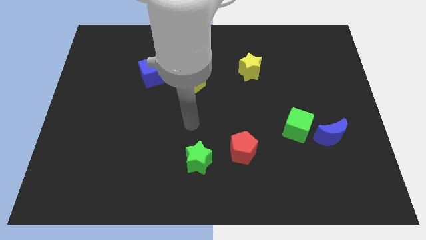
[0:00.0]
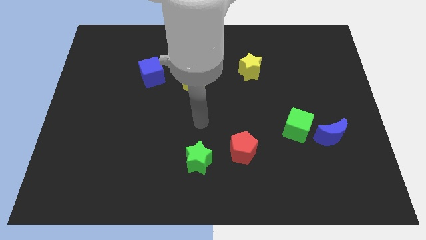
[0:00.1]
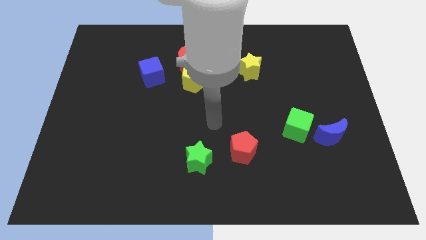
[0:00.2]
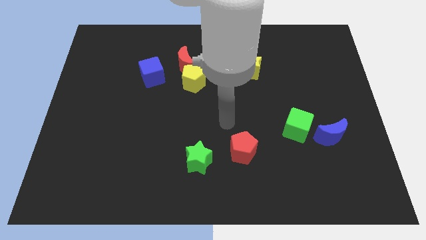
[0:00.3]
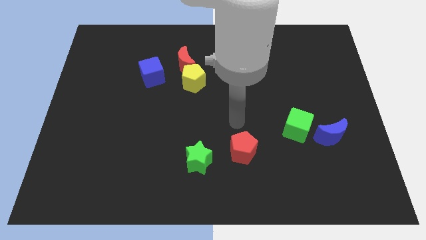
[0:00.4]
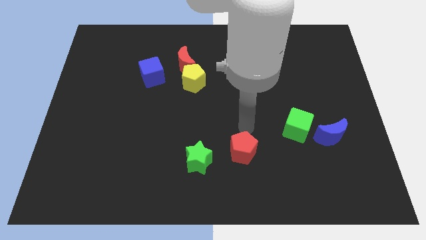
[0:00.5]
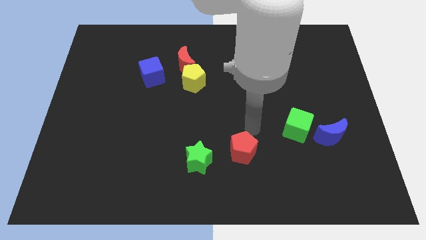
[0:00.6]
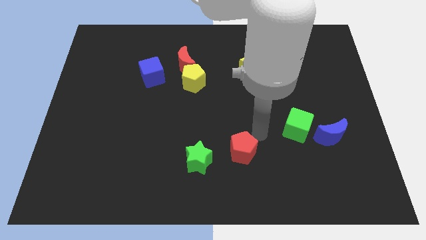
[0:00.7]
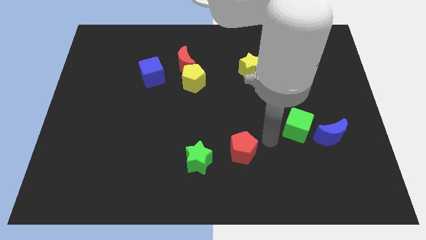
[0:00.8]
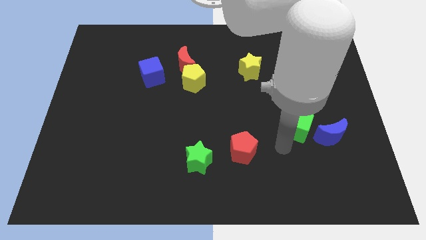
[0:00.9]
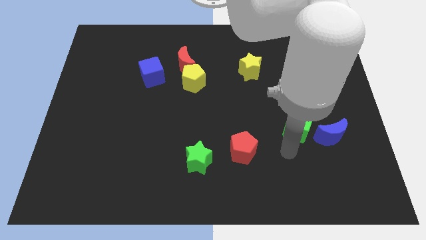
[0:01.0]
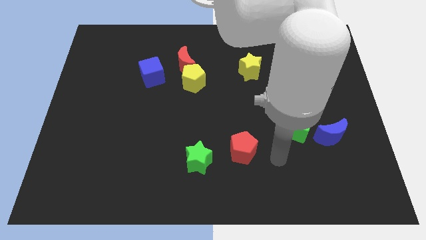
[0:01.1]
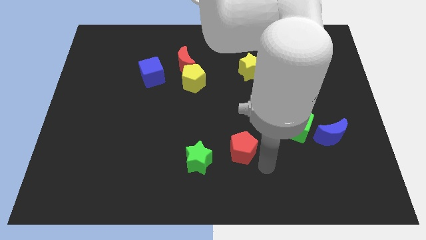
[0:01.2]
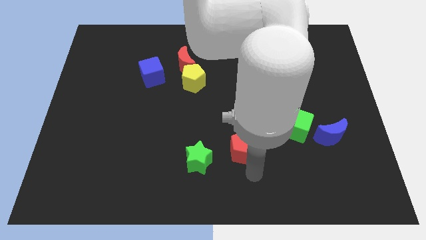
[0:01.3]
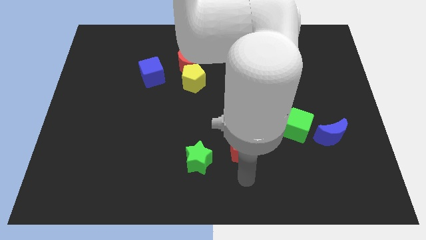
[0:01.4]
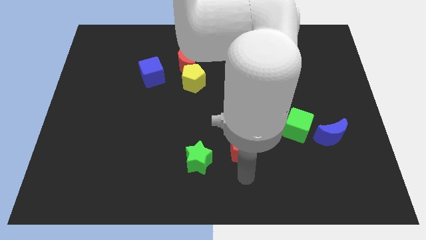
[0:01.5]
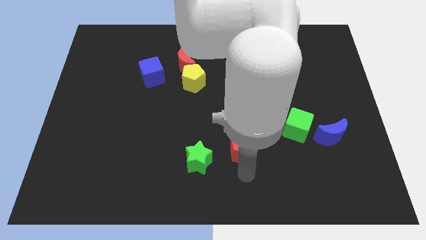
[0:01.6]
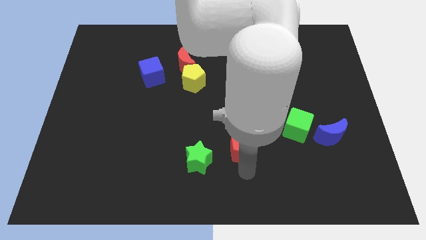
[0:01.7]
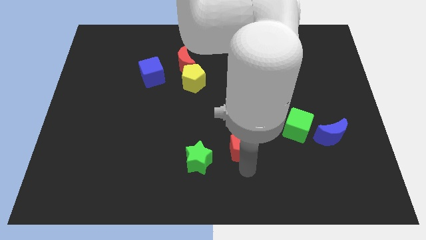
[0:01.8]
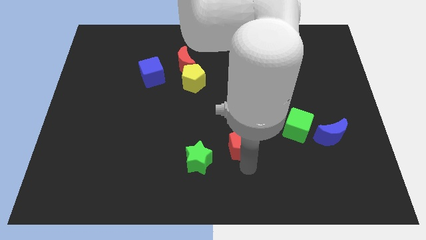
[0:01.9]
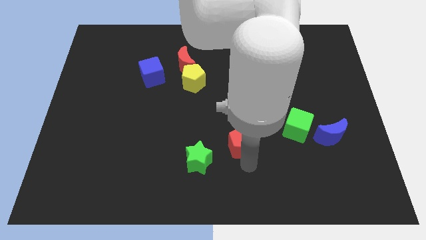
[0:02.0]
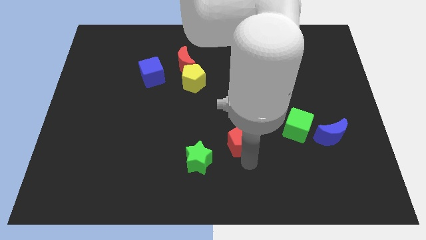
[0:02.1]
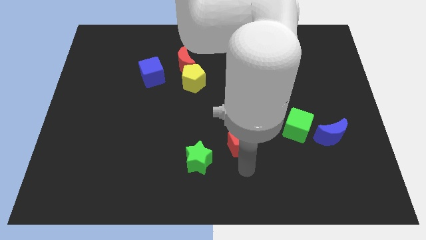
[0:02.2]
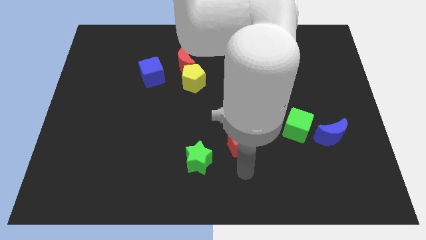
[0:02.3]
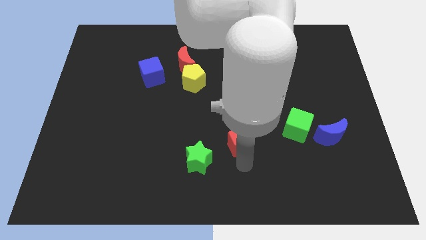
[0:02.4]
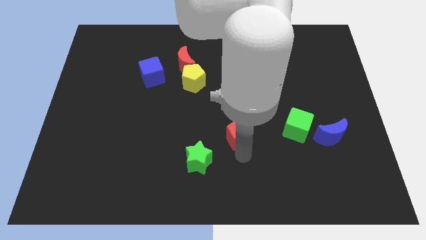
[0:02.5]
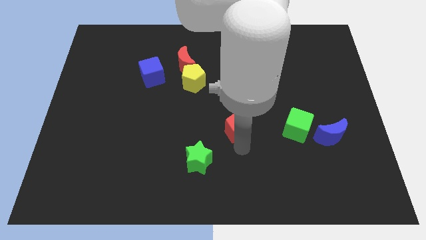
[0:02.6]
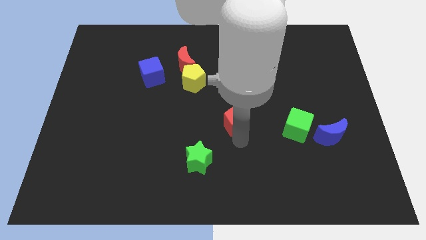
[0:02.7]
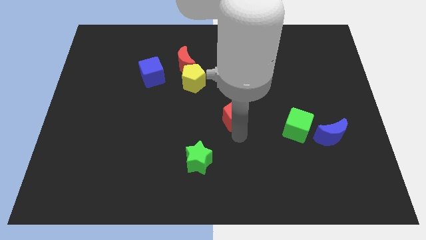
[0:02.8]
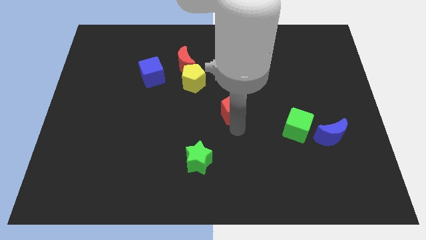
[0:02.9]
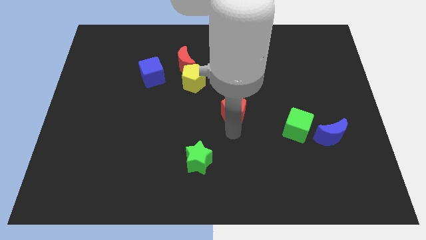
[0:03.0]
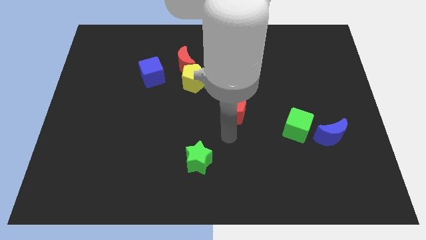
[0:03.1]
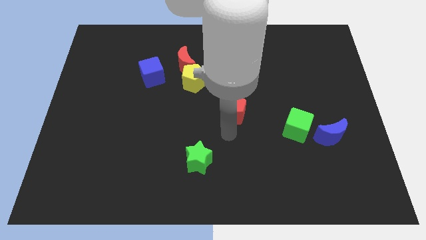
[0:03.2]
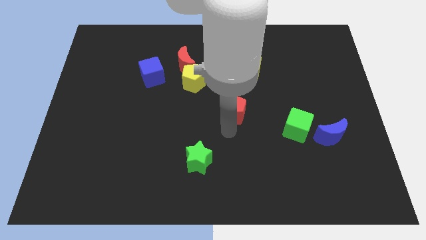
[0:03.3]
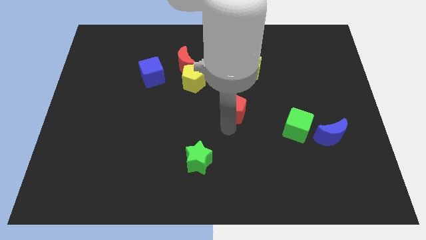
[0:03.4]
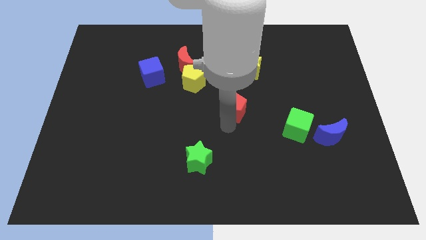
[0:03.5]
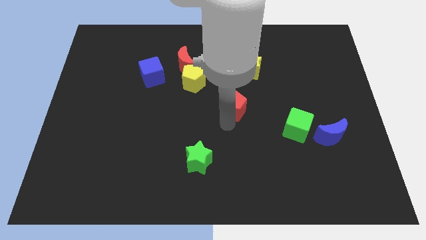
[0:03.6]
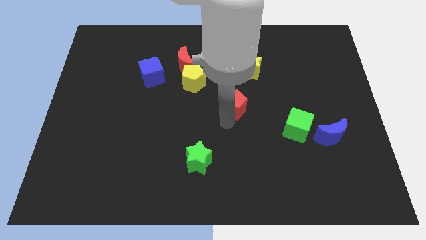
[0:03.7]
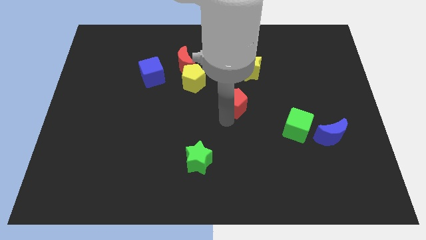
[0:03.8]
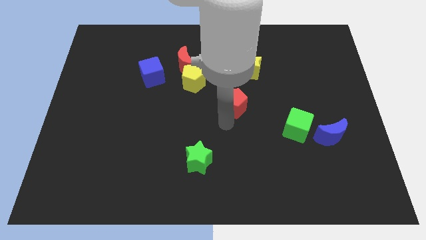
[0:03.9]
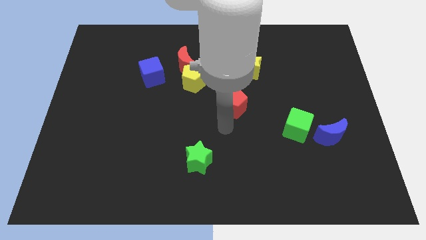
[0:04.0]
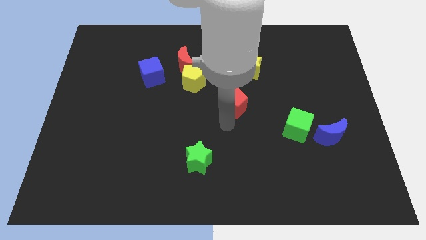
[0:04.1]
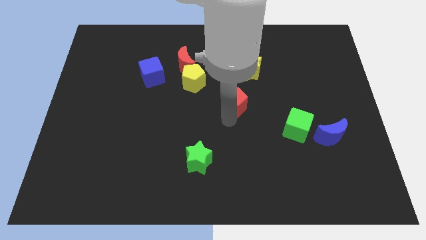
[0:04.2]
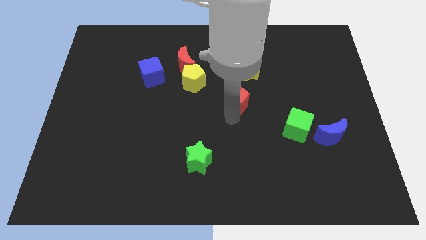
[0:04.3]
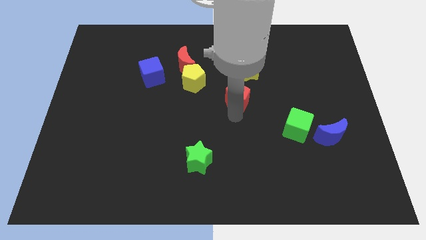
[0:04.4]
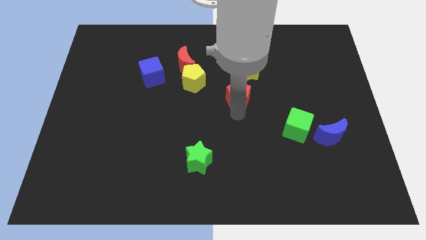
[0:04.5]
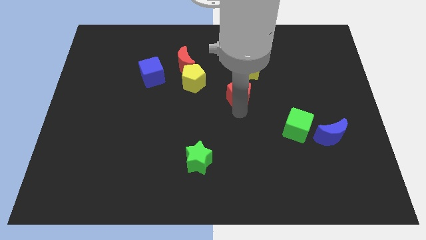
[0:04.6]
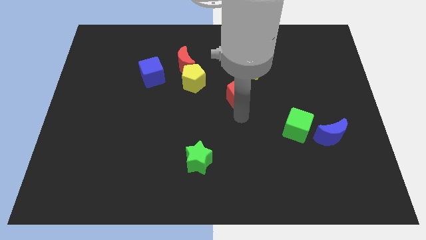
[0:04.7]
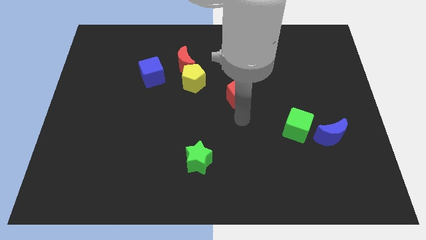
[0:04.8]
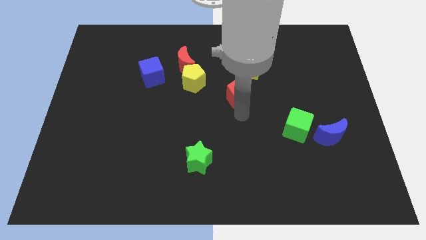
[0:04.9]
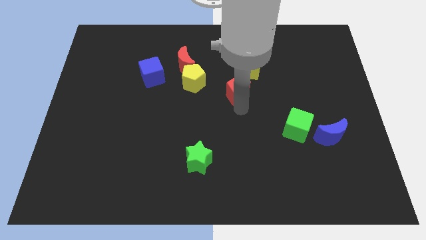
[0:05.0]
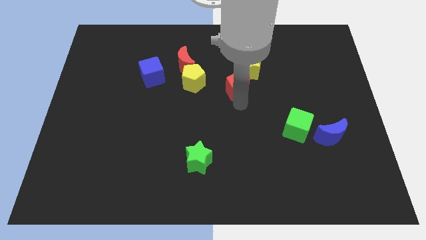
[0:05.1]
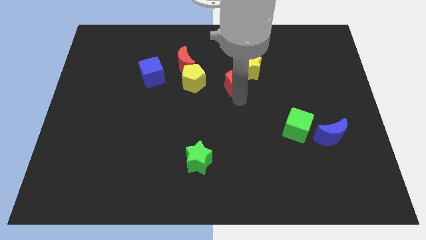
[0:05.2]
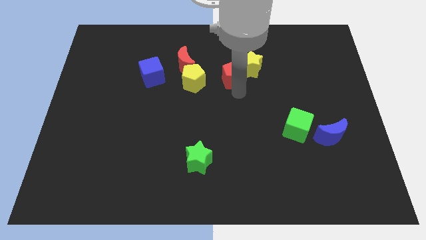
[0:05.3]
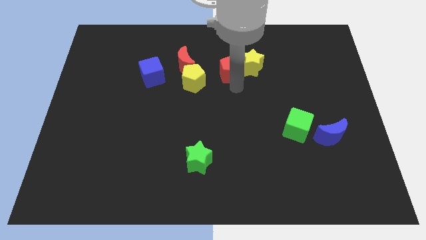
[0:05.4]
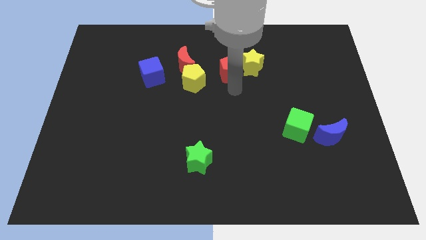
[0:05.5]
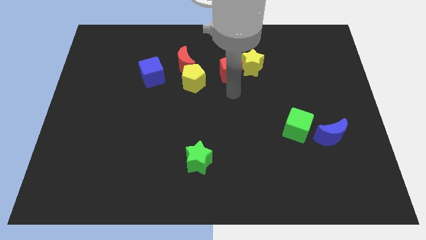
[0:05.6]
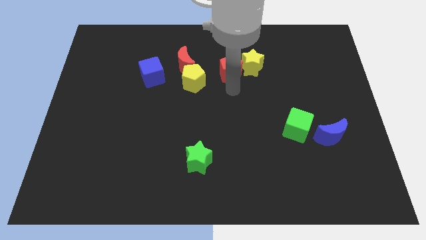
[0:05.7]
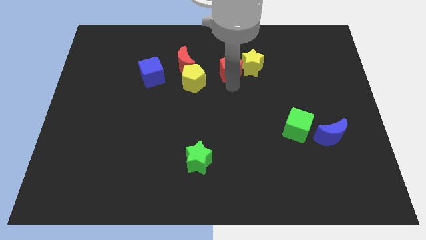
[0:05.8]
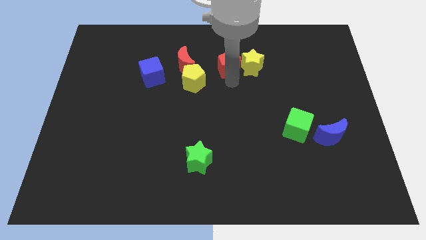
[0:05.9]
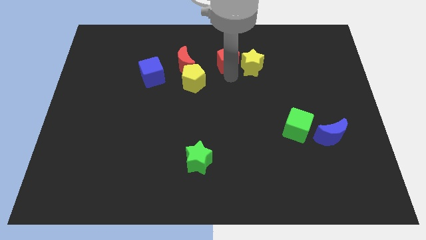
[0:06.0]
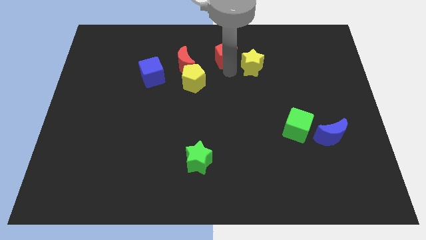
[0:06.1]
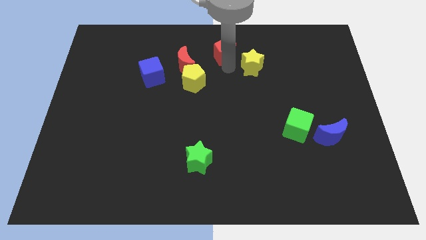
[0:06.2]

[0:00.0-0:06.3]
push the red pentagon to the top

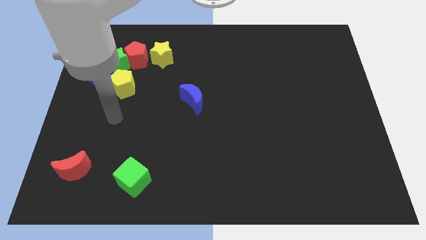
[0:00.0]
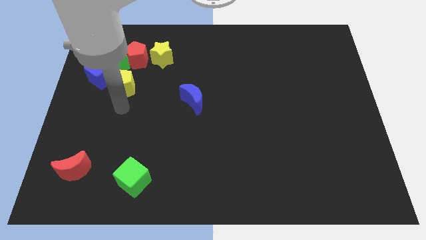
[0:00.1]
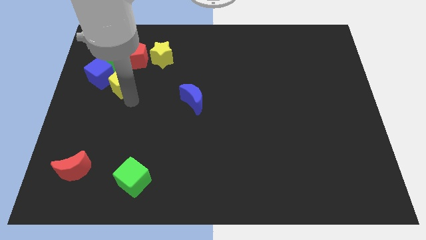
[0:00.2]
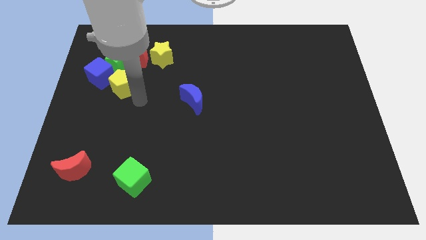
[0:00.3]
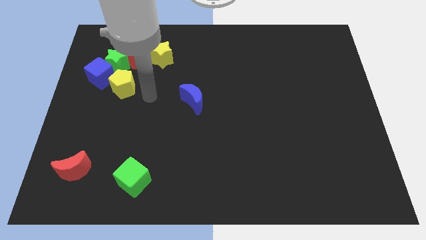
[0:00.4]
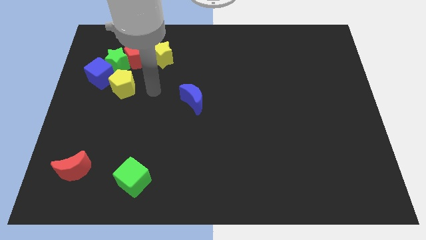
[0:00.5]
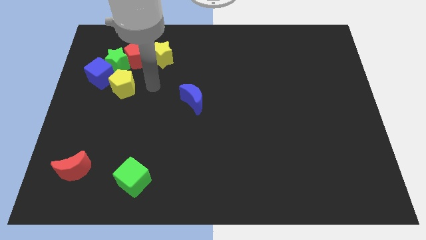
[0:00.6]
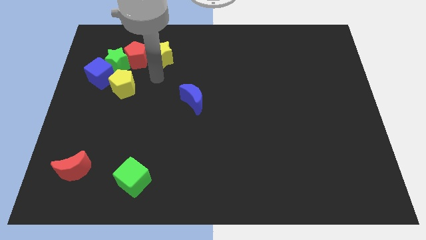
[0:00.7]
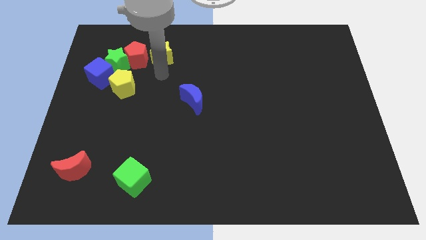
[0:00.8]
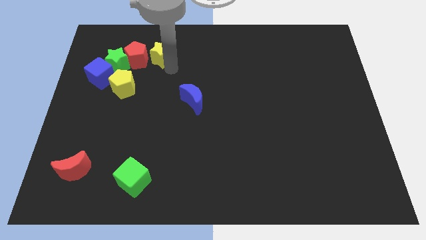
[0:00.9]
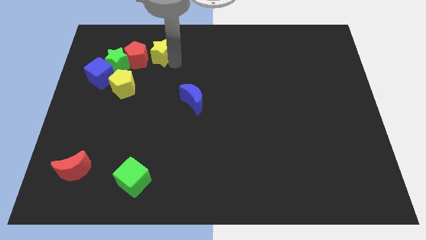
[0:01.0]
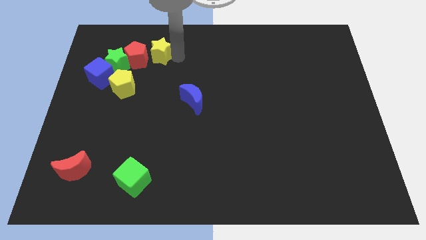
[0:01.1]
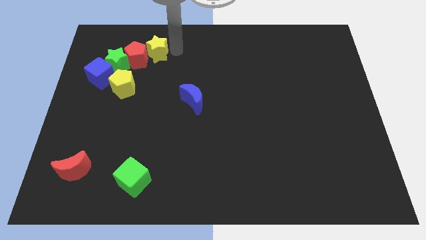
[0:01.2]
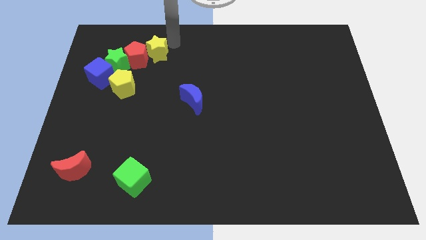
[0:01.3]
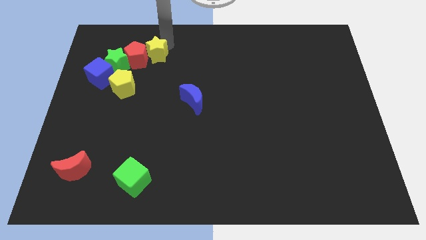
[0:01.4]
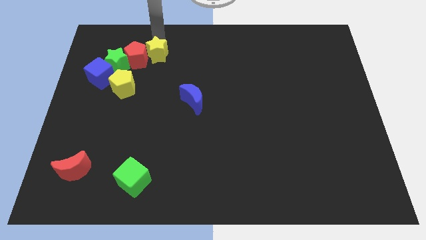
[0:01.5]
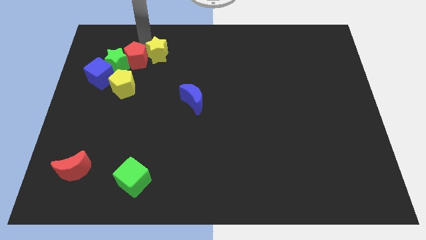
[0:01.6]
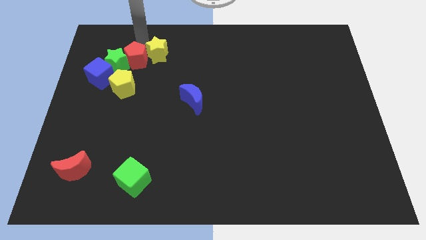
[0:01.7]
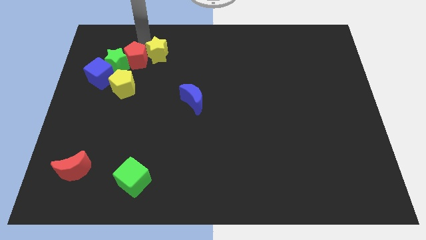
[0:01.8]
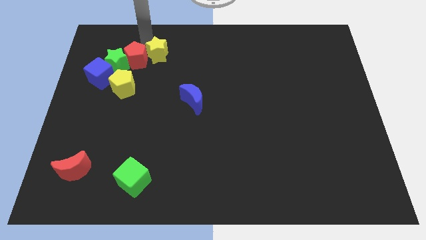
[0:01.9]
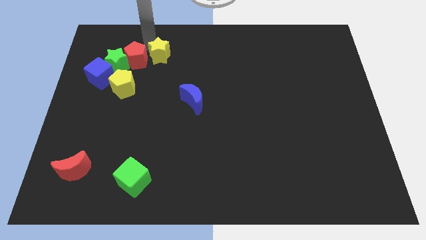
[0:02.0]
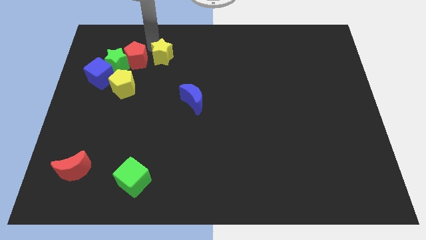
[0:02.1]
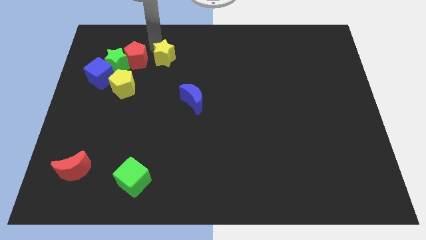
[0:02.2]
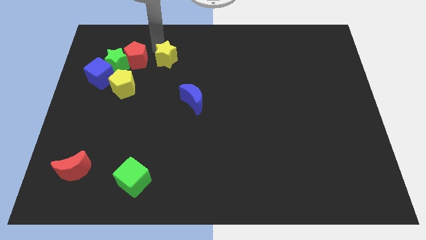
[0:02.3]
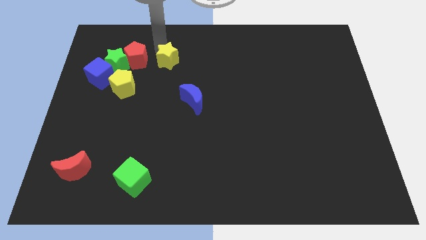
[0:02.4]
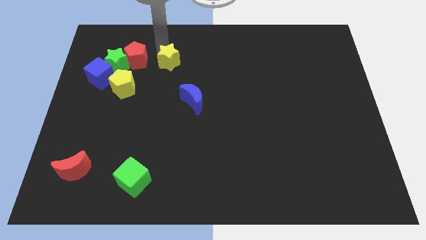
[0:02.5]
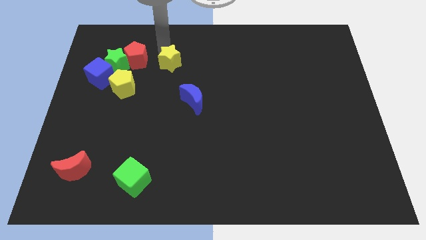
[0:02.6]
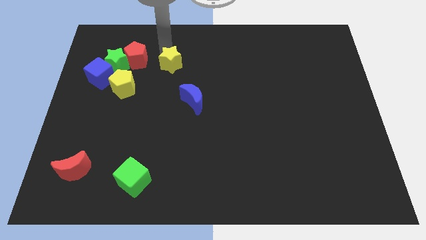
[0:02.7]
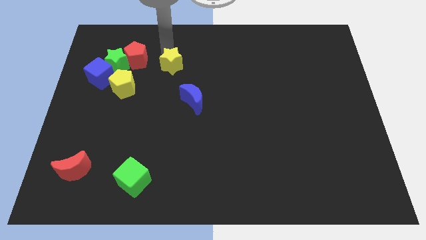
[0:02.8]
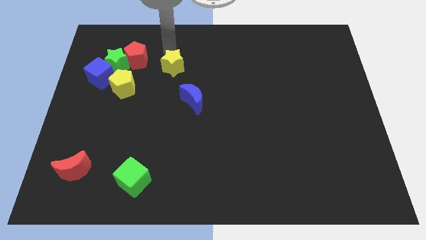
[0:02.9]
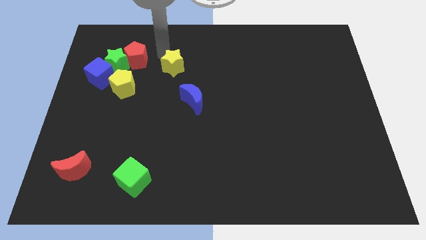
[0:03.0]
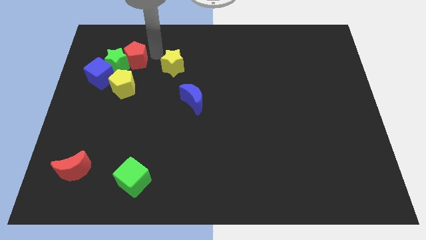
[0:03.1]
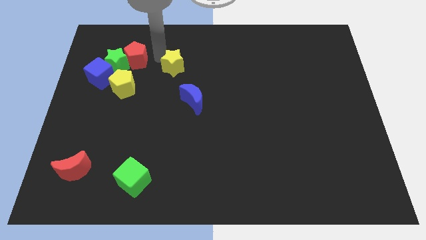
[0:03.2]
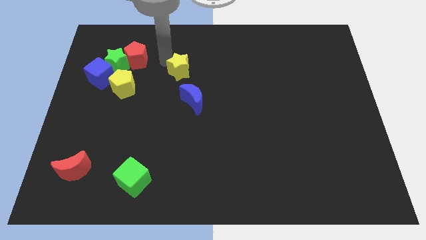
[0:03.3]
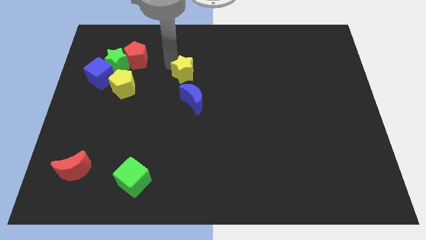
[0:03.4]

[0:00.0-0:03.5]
slide the yellow star to the middle
